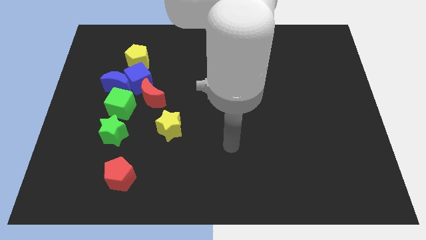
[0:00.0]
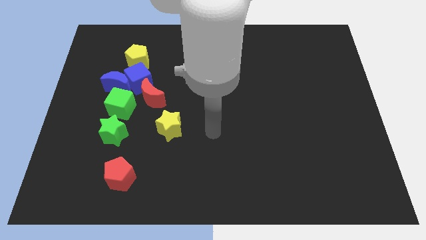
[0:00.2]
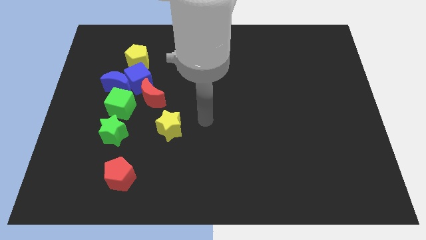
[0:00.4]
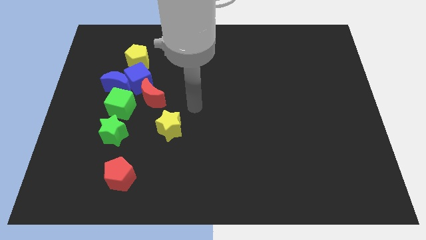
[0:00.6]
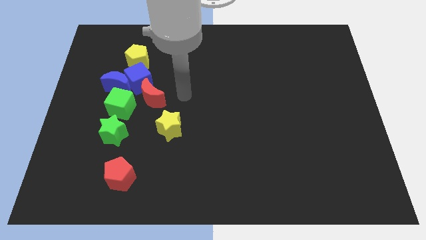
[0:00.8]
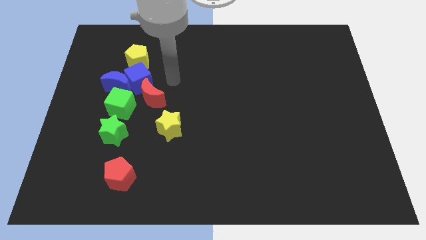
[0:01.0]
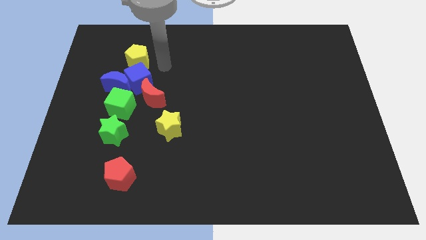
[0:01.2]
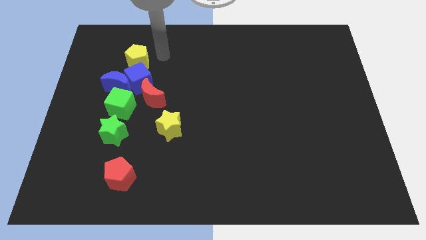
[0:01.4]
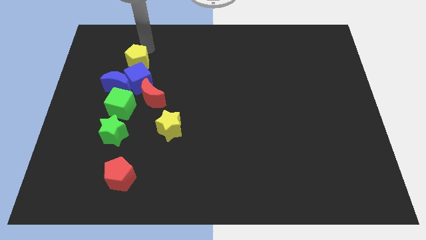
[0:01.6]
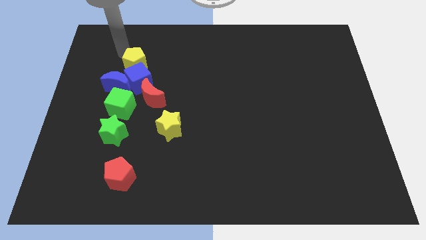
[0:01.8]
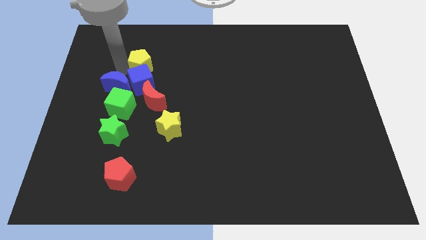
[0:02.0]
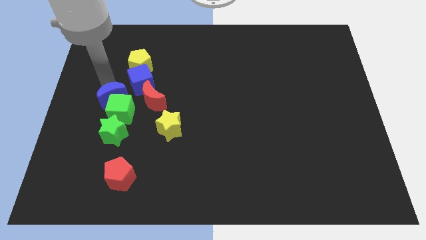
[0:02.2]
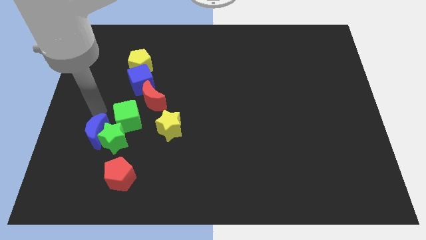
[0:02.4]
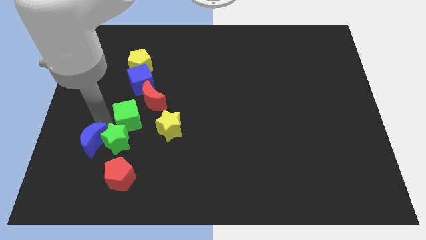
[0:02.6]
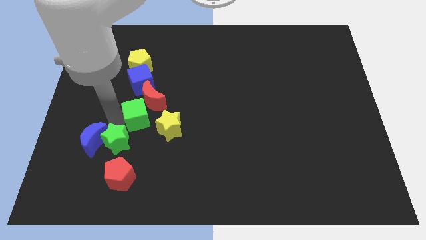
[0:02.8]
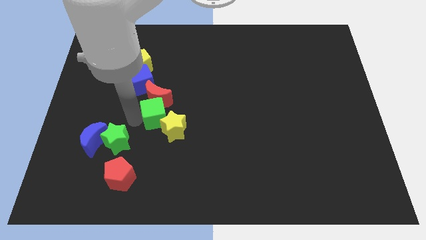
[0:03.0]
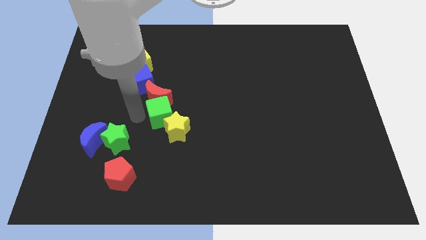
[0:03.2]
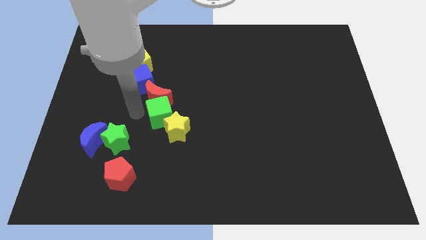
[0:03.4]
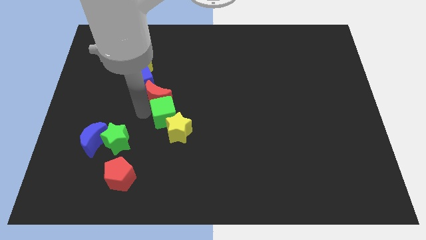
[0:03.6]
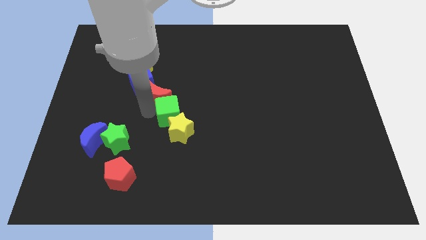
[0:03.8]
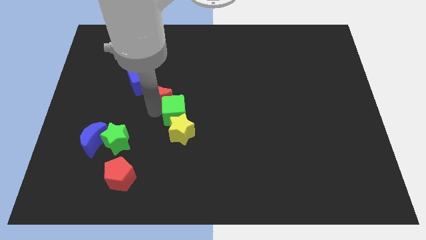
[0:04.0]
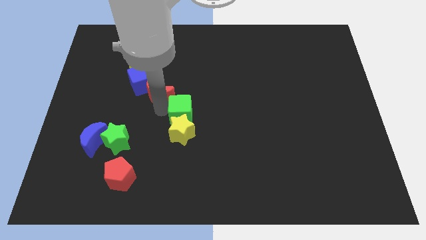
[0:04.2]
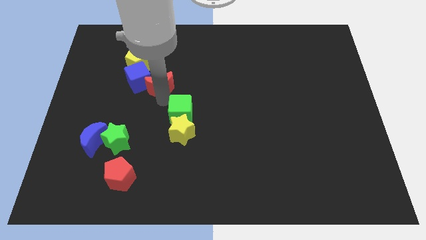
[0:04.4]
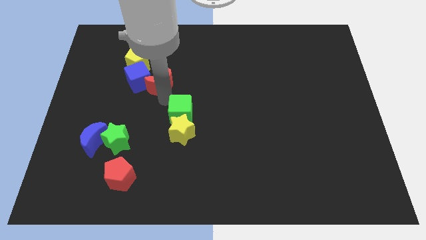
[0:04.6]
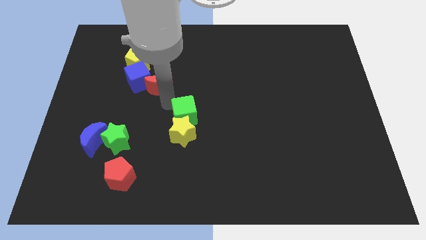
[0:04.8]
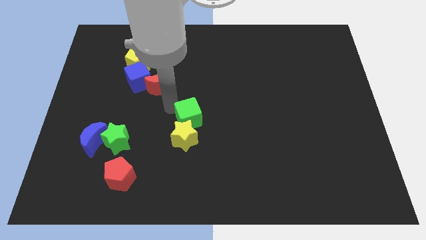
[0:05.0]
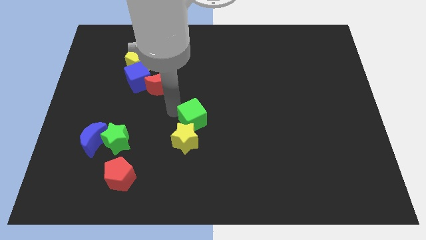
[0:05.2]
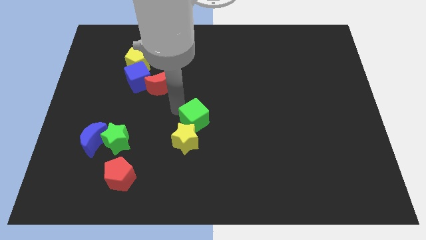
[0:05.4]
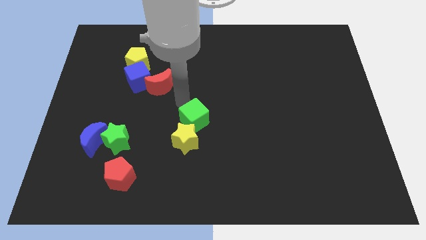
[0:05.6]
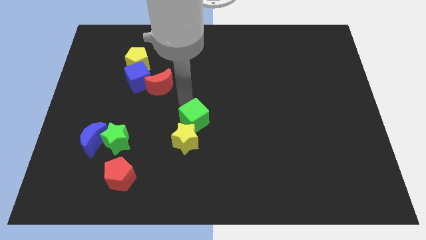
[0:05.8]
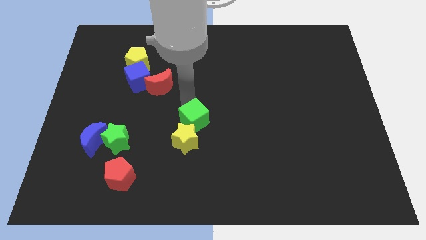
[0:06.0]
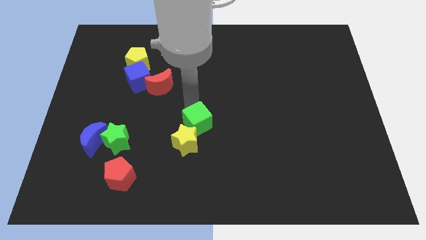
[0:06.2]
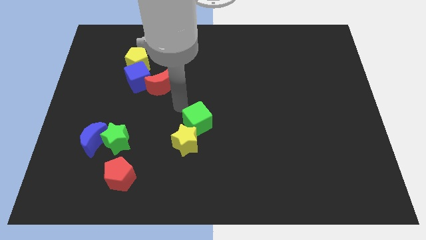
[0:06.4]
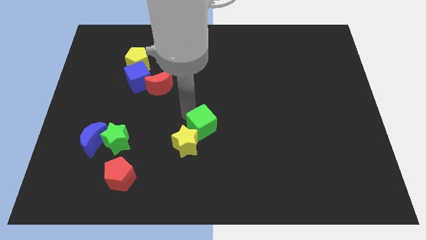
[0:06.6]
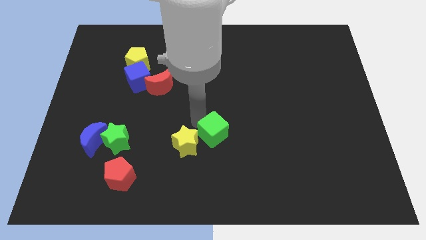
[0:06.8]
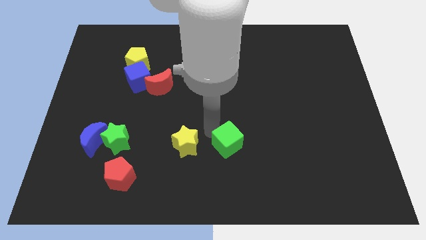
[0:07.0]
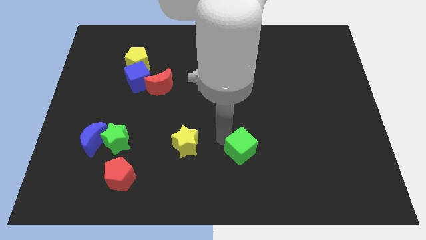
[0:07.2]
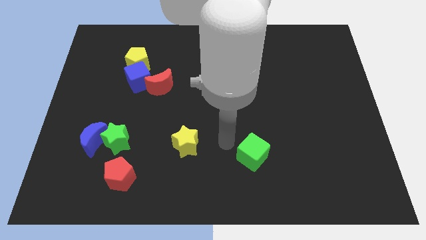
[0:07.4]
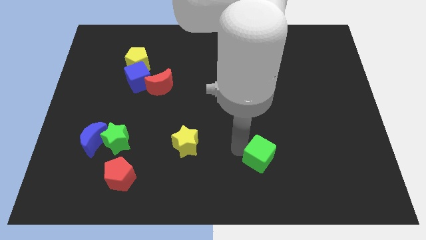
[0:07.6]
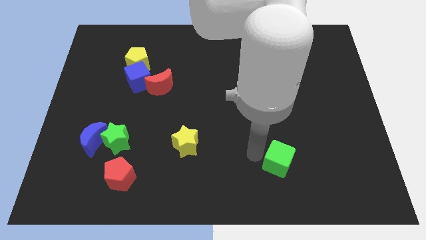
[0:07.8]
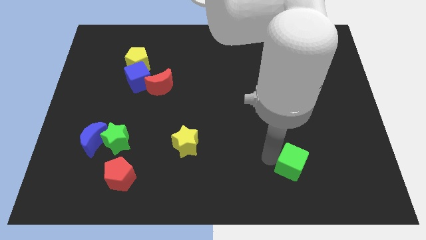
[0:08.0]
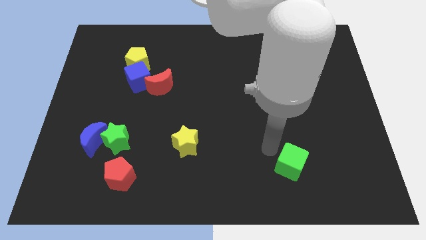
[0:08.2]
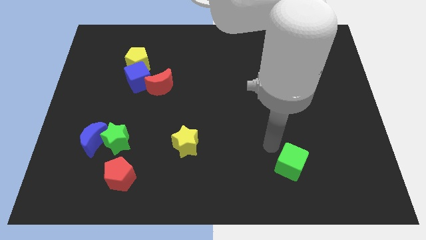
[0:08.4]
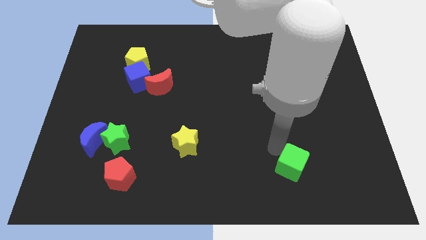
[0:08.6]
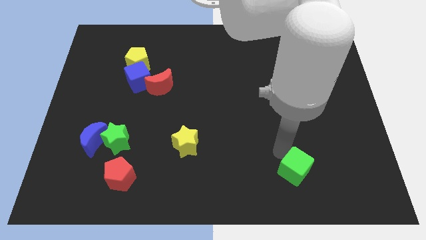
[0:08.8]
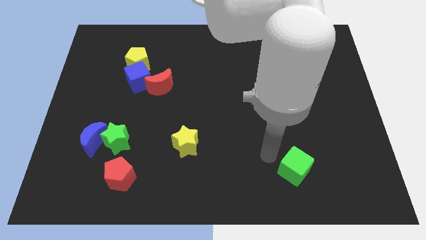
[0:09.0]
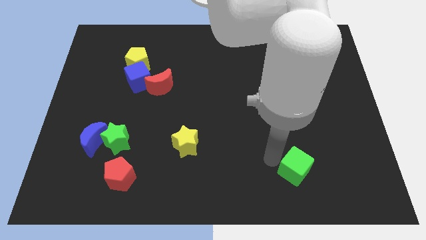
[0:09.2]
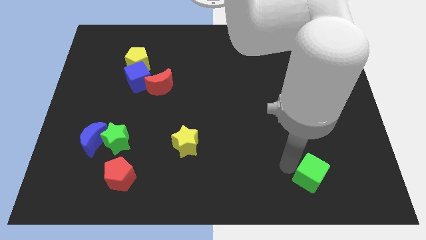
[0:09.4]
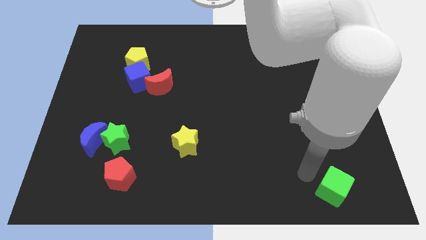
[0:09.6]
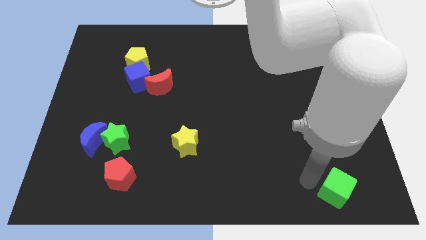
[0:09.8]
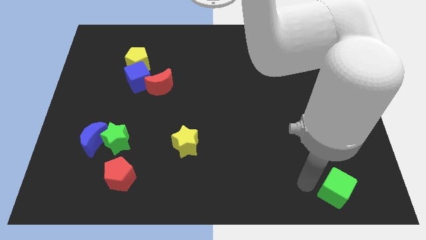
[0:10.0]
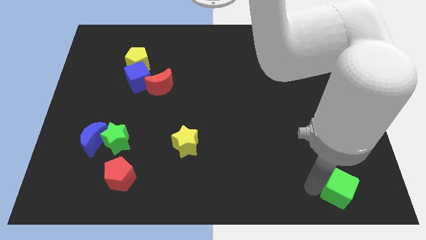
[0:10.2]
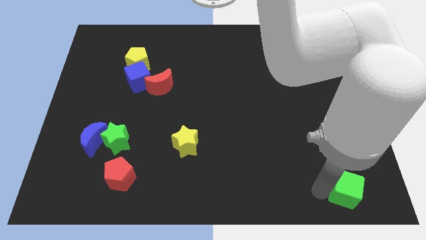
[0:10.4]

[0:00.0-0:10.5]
slide the green cube to the bottom right
